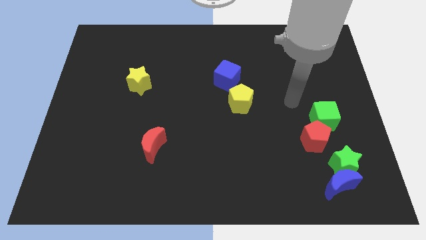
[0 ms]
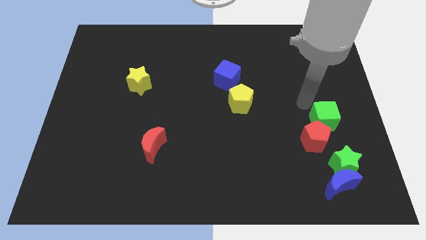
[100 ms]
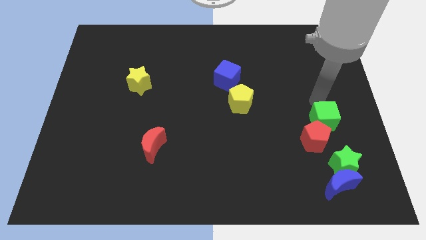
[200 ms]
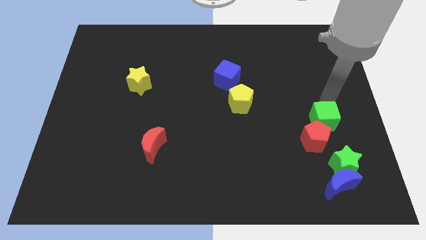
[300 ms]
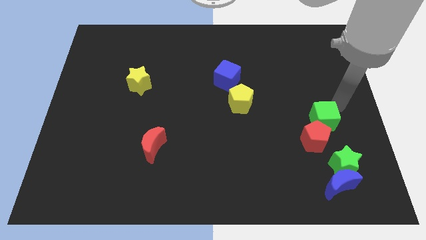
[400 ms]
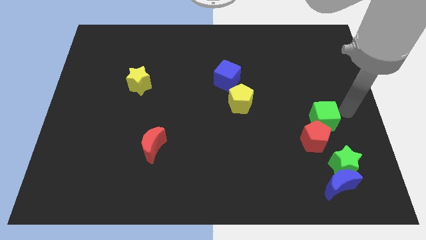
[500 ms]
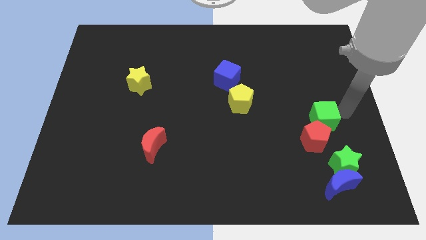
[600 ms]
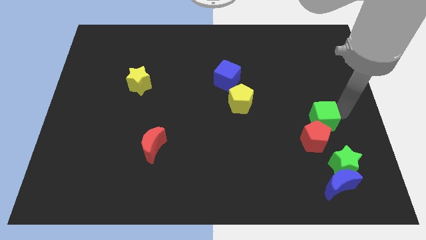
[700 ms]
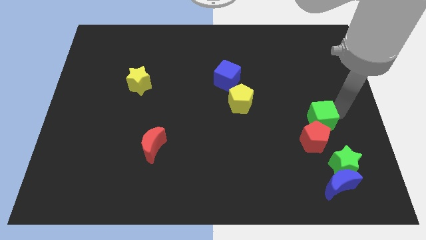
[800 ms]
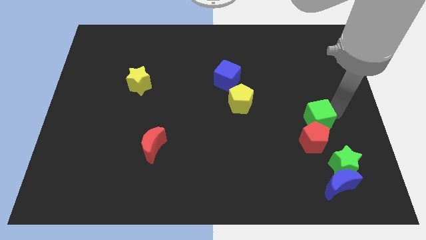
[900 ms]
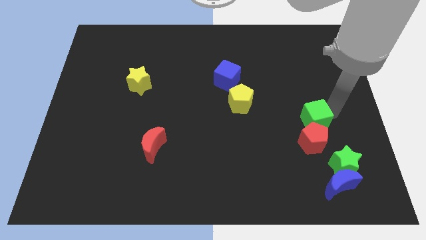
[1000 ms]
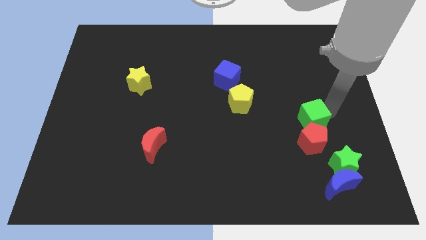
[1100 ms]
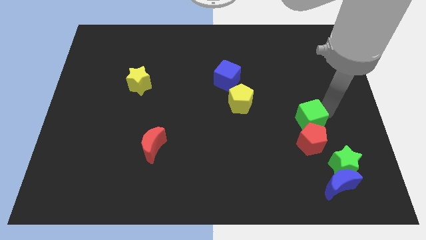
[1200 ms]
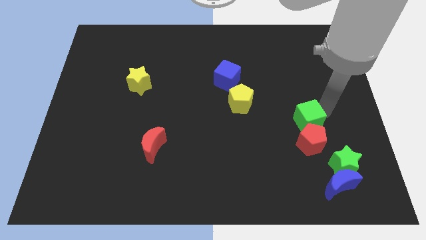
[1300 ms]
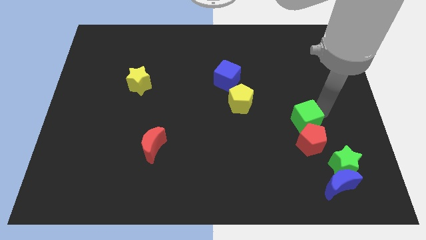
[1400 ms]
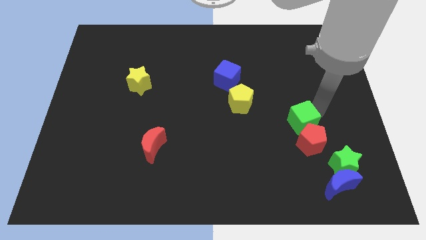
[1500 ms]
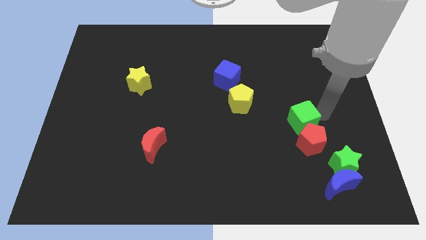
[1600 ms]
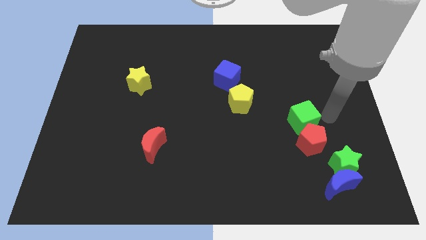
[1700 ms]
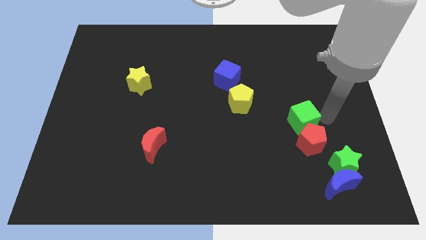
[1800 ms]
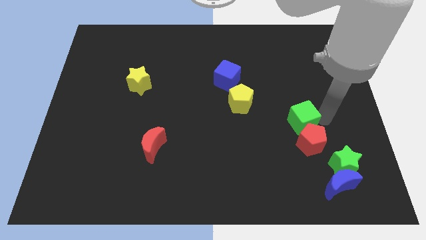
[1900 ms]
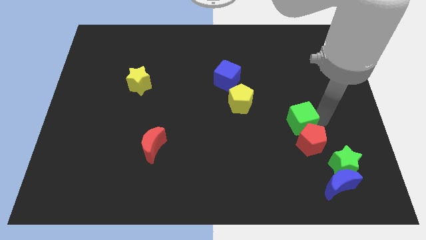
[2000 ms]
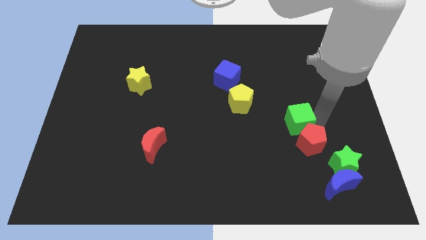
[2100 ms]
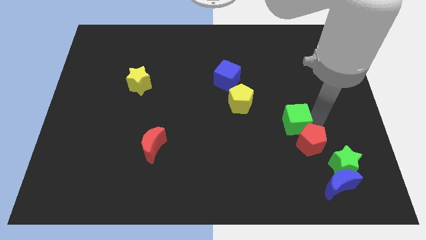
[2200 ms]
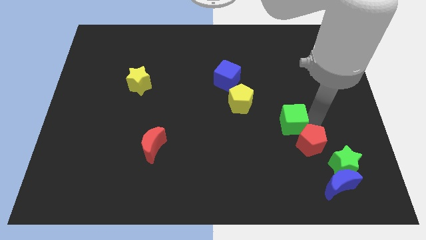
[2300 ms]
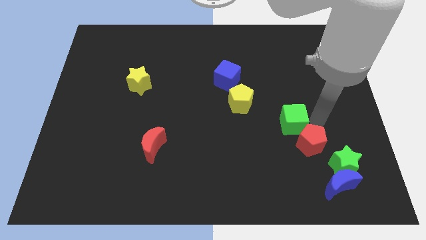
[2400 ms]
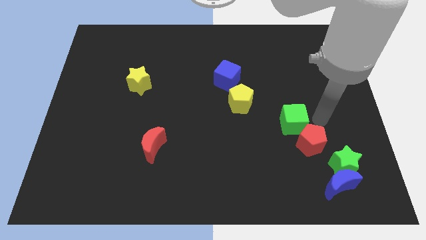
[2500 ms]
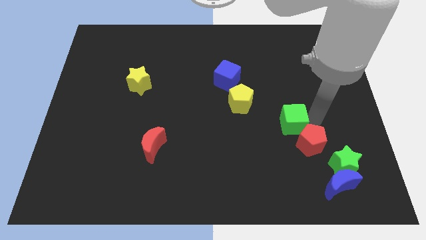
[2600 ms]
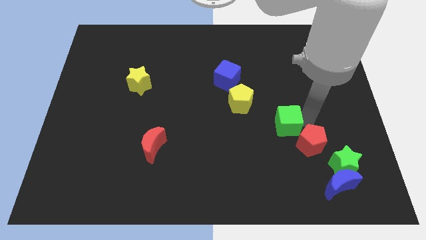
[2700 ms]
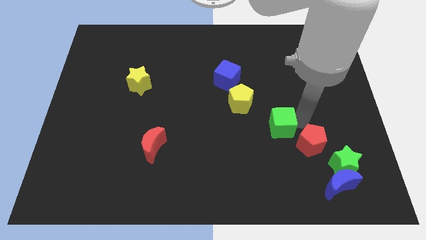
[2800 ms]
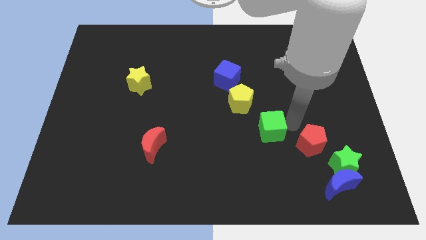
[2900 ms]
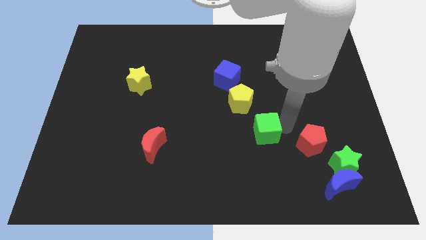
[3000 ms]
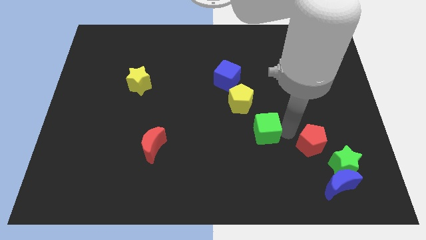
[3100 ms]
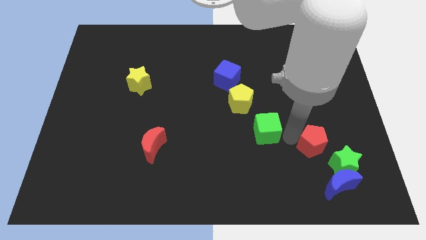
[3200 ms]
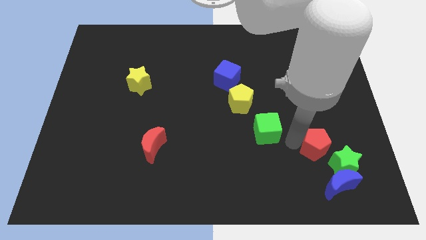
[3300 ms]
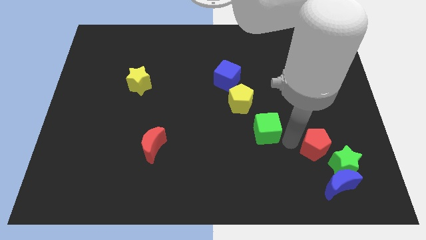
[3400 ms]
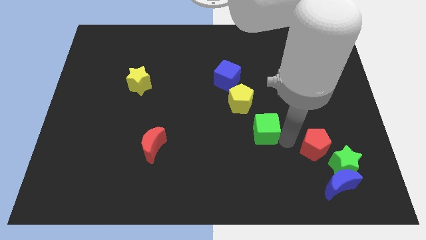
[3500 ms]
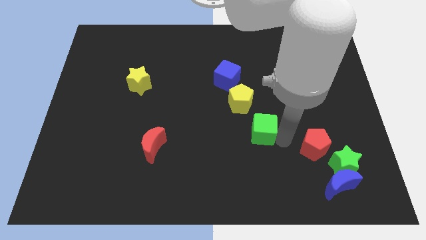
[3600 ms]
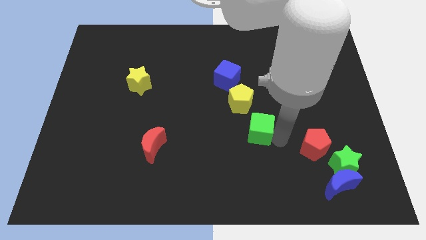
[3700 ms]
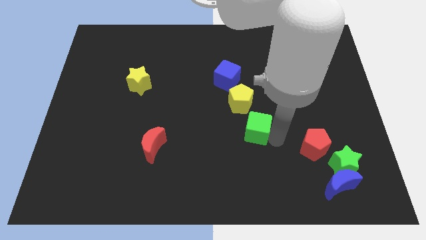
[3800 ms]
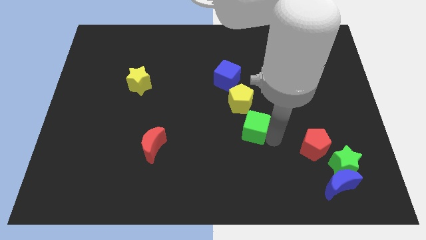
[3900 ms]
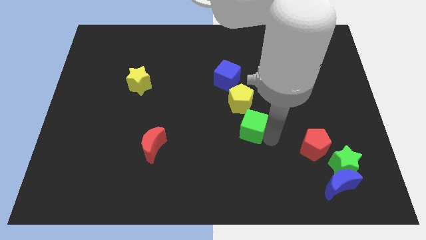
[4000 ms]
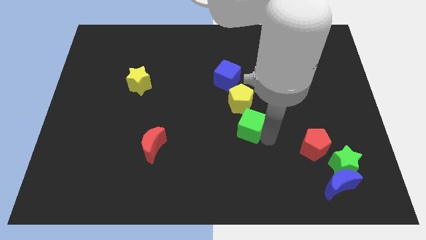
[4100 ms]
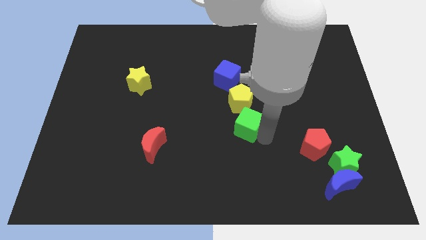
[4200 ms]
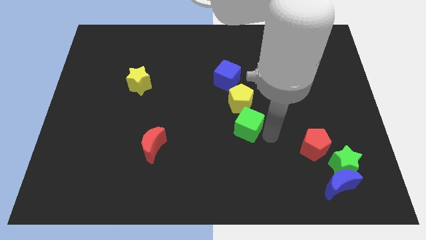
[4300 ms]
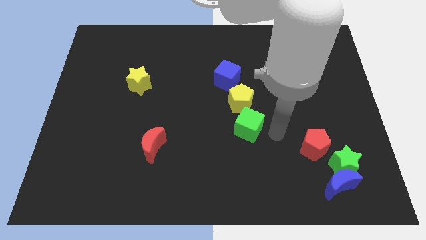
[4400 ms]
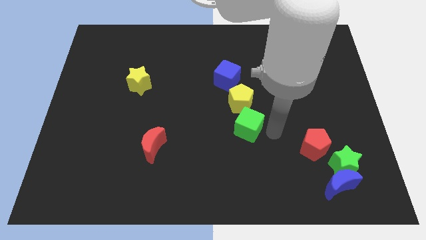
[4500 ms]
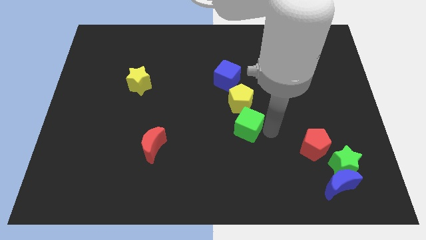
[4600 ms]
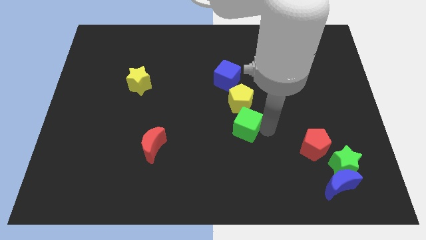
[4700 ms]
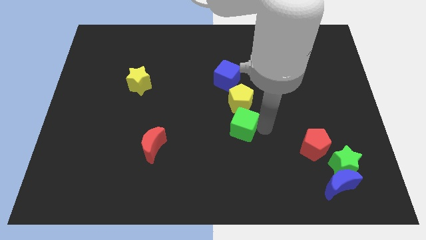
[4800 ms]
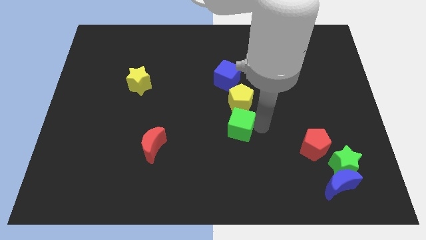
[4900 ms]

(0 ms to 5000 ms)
push the green cube diagonally down and to the left of the yellow pentagon

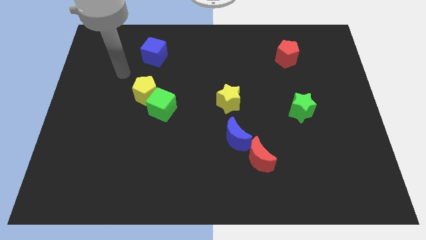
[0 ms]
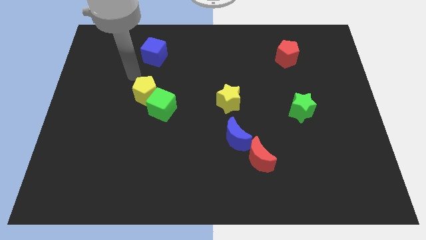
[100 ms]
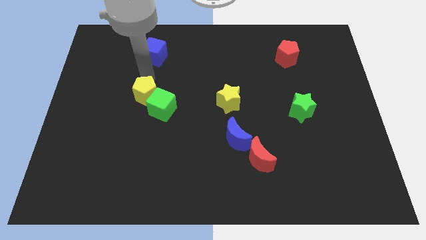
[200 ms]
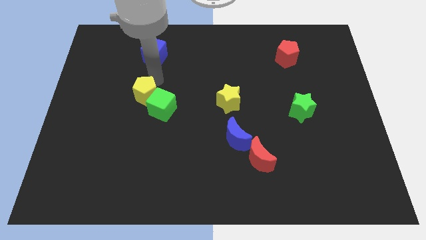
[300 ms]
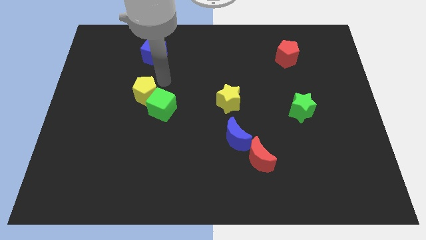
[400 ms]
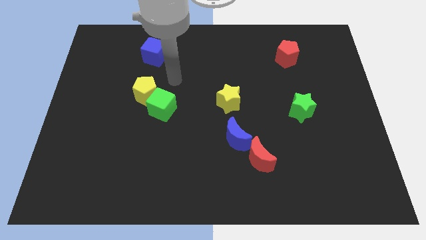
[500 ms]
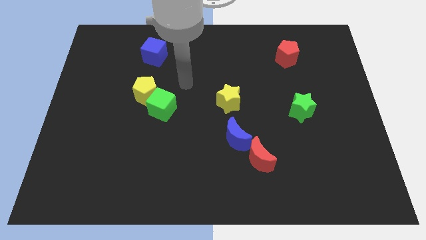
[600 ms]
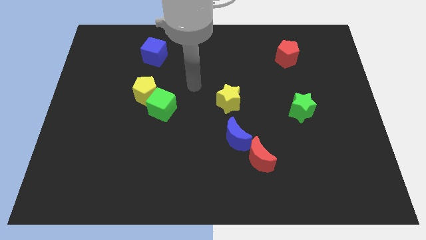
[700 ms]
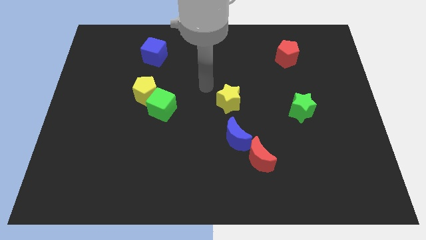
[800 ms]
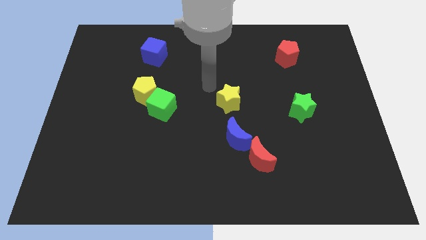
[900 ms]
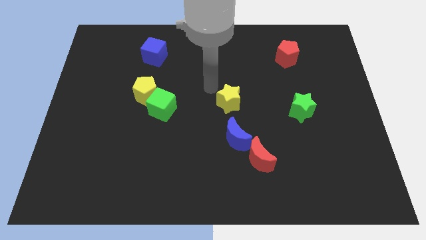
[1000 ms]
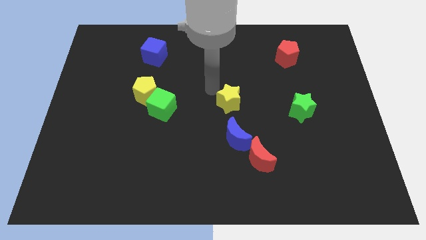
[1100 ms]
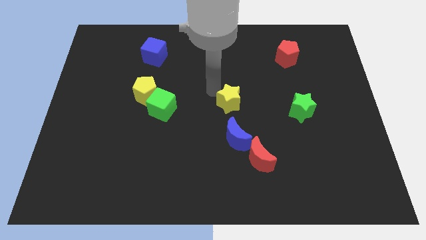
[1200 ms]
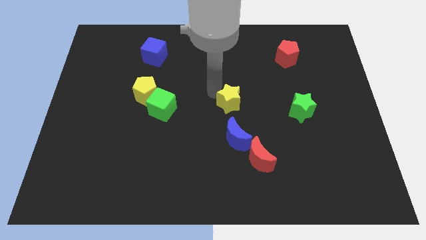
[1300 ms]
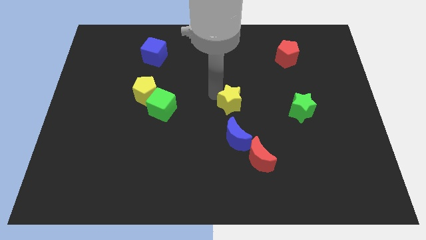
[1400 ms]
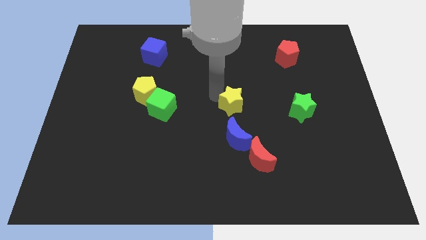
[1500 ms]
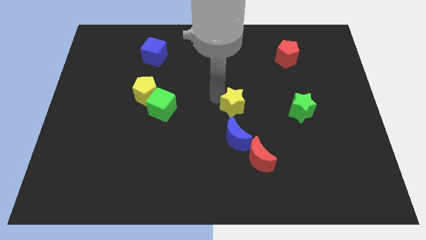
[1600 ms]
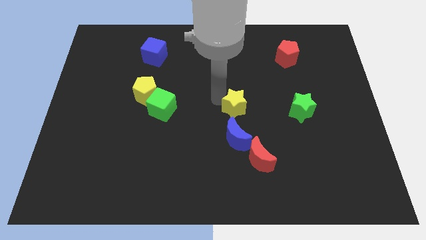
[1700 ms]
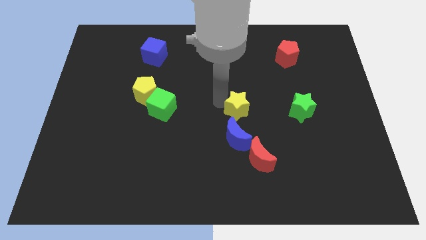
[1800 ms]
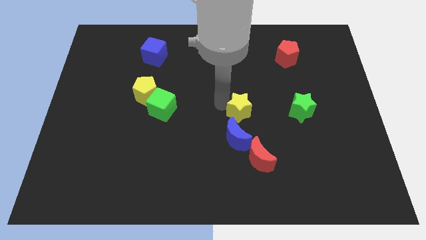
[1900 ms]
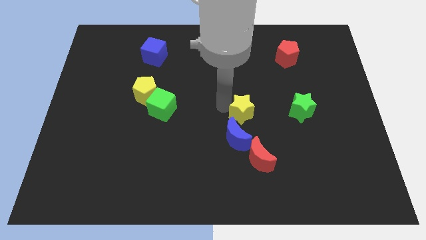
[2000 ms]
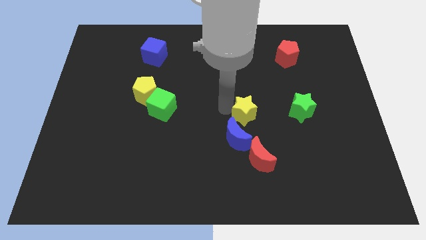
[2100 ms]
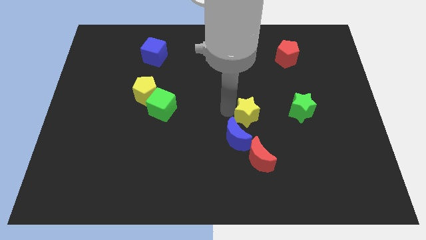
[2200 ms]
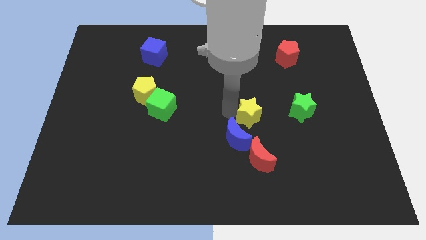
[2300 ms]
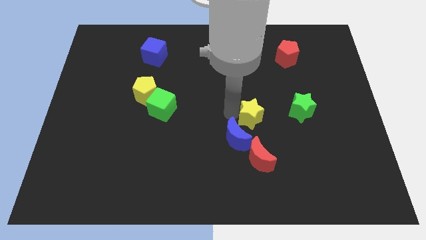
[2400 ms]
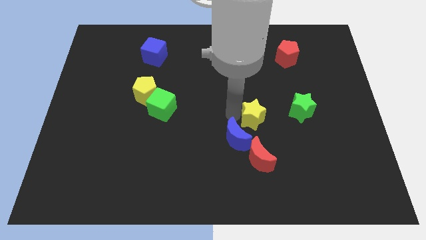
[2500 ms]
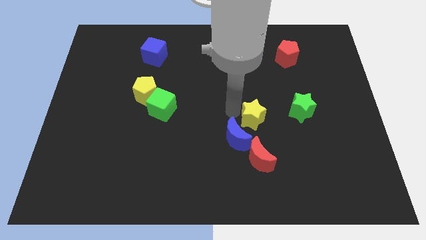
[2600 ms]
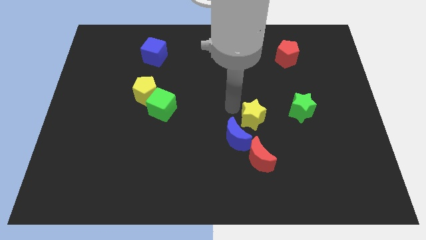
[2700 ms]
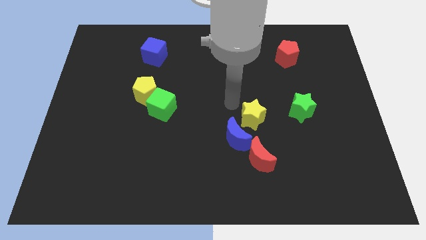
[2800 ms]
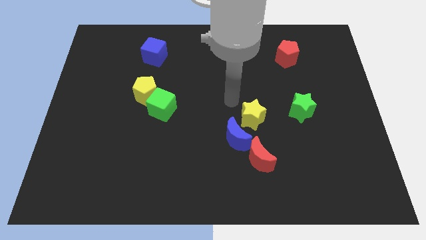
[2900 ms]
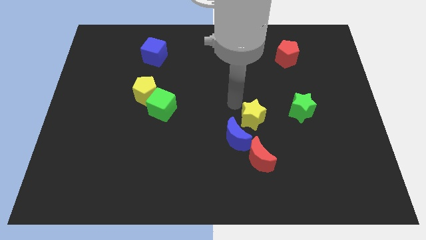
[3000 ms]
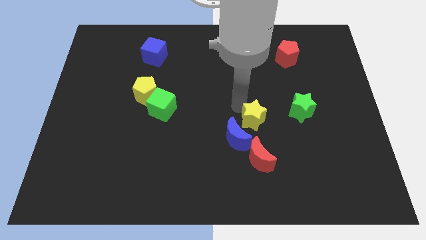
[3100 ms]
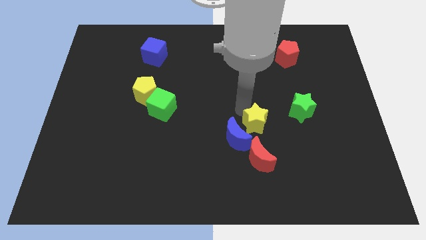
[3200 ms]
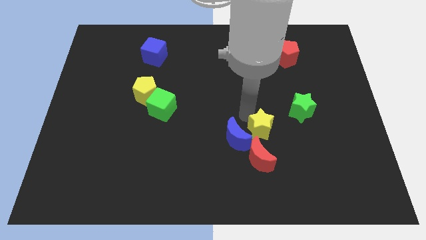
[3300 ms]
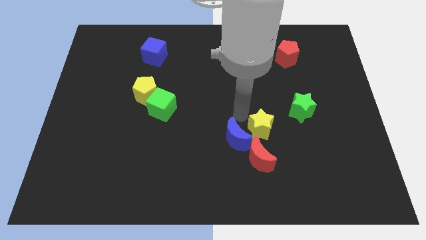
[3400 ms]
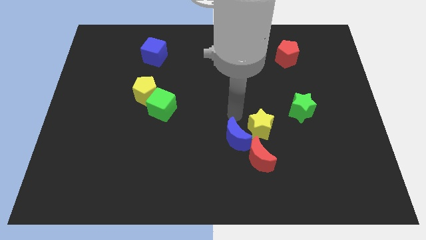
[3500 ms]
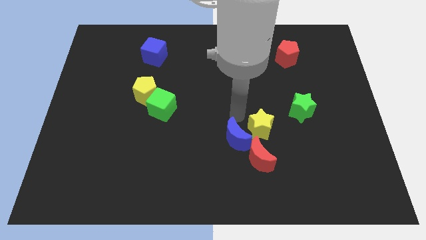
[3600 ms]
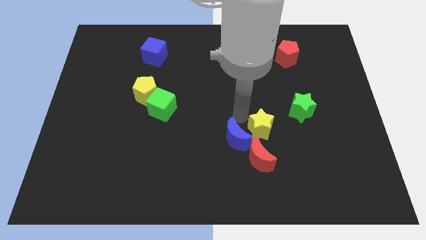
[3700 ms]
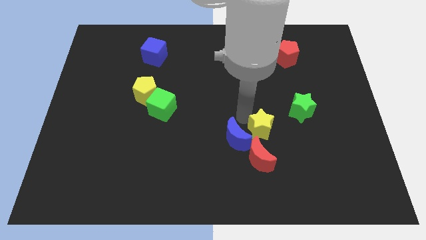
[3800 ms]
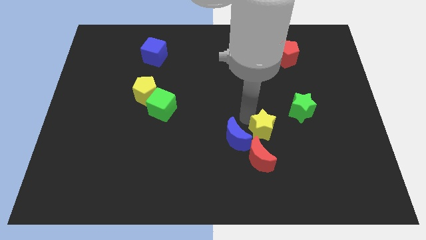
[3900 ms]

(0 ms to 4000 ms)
push the yellow star to the top right side of the red moon
